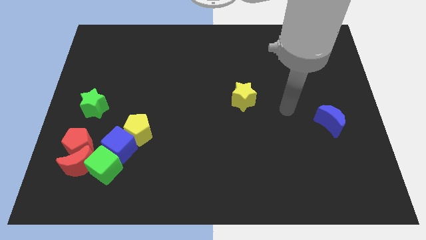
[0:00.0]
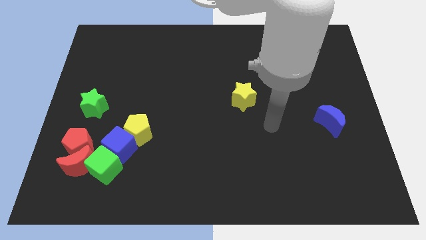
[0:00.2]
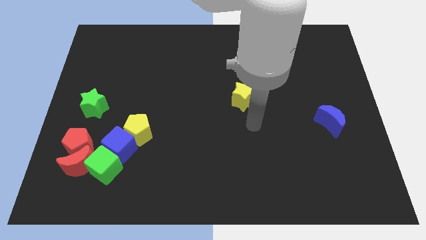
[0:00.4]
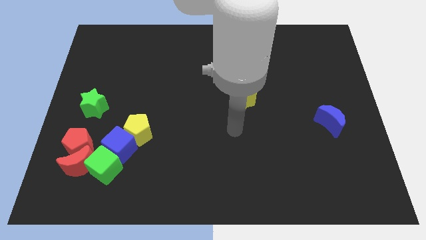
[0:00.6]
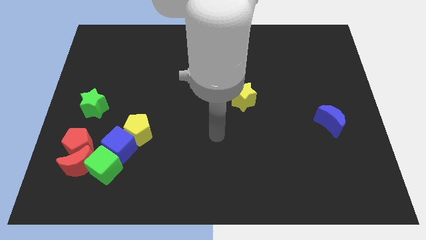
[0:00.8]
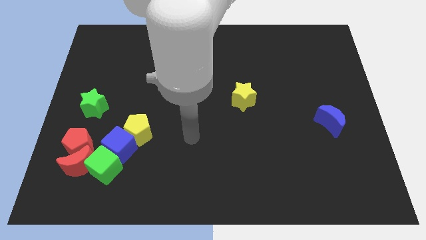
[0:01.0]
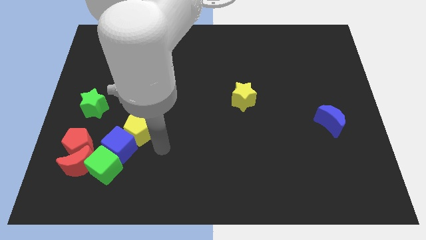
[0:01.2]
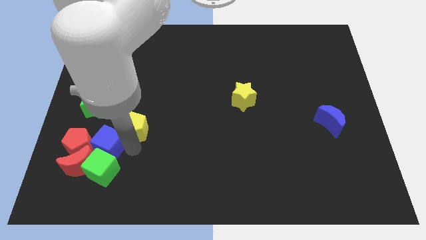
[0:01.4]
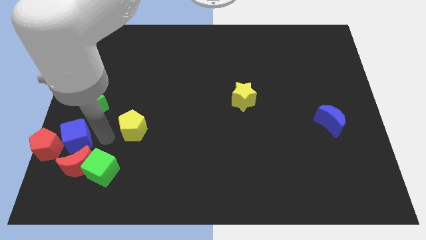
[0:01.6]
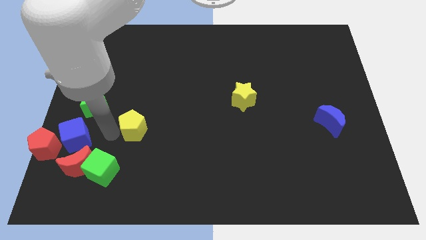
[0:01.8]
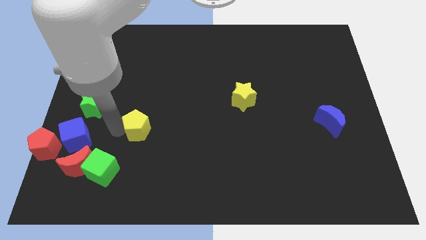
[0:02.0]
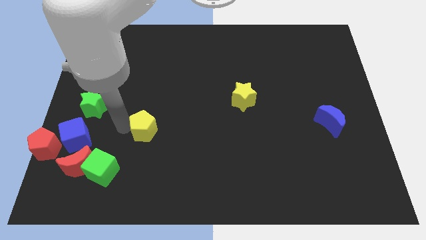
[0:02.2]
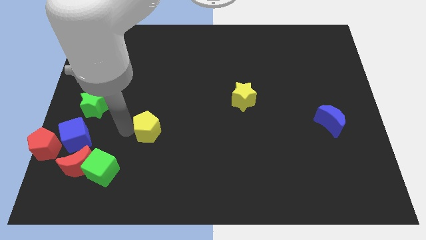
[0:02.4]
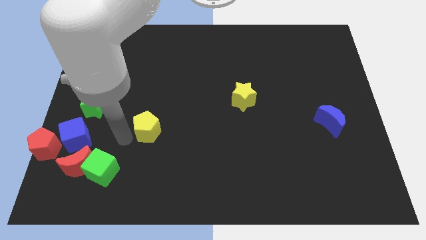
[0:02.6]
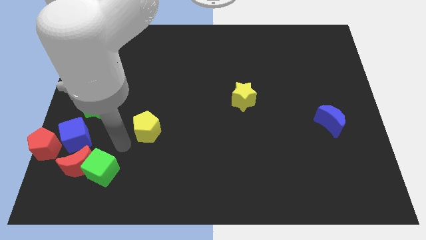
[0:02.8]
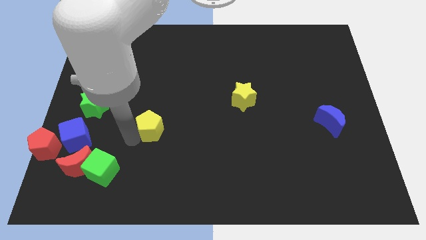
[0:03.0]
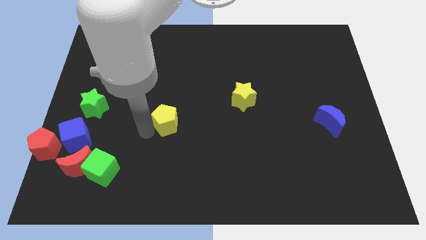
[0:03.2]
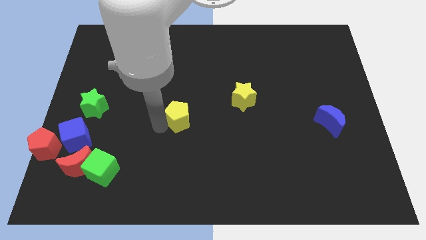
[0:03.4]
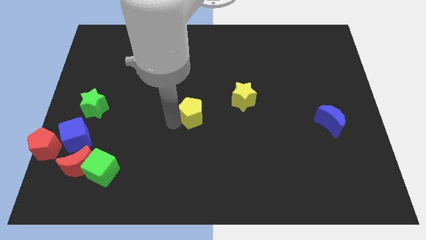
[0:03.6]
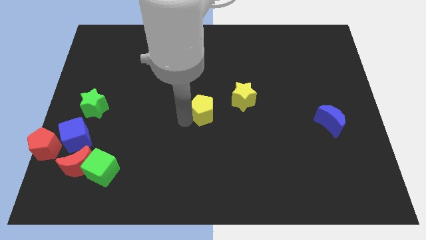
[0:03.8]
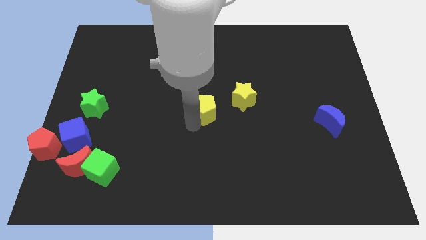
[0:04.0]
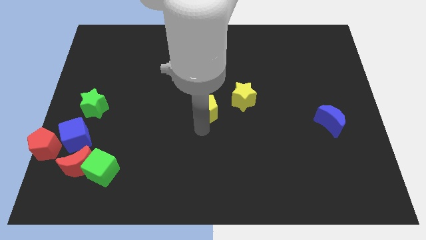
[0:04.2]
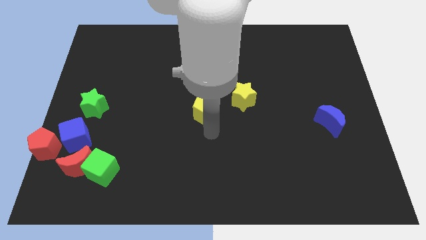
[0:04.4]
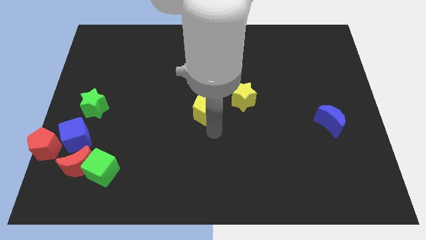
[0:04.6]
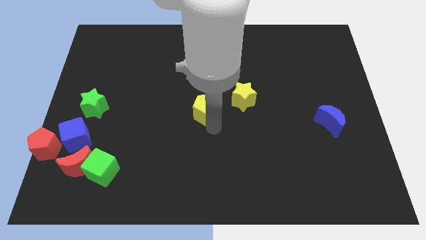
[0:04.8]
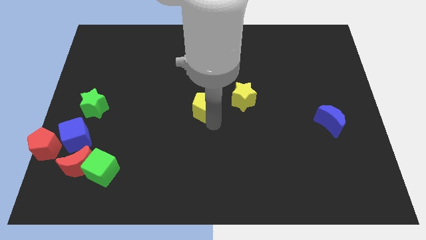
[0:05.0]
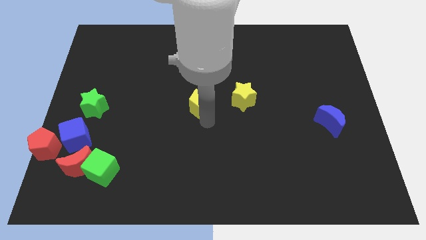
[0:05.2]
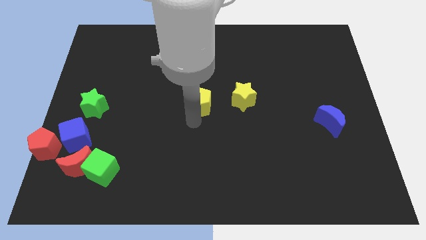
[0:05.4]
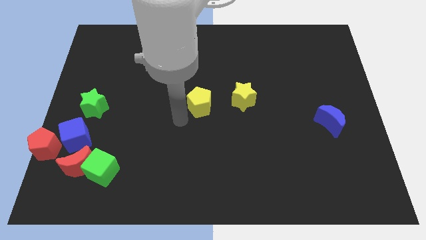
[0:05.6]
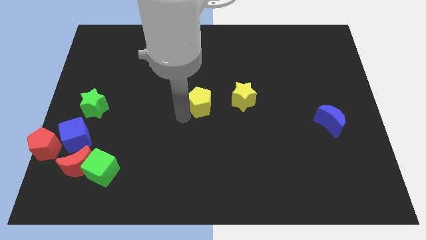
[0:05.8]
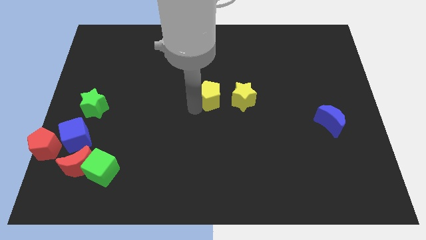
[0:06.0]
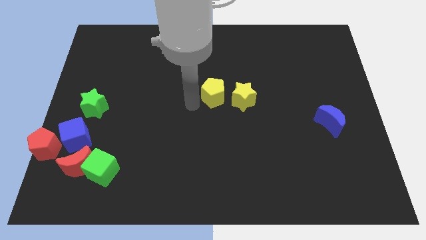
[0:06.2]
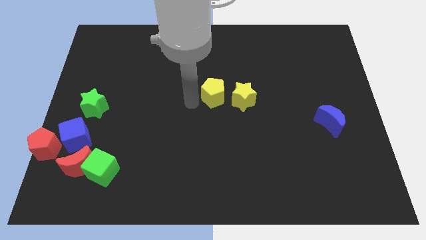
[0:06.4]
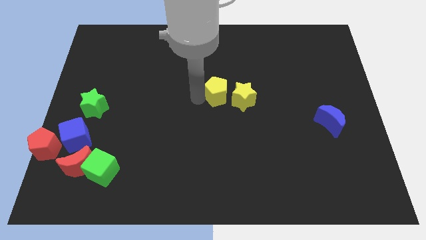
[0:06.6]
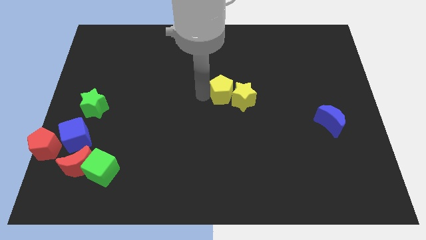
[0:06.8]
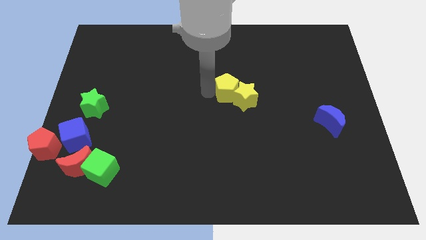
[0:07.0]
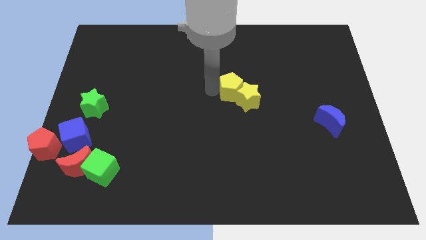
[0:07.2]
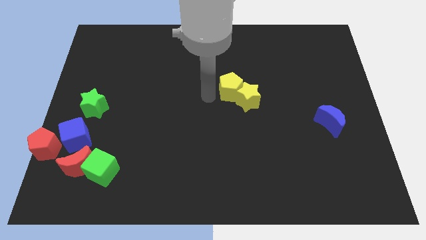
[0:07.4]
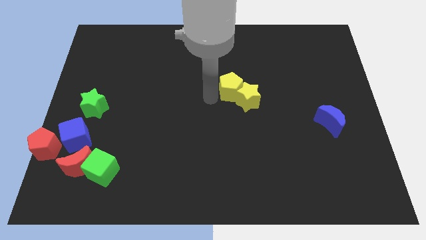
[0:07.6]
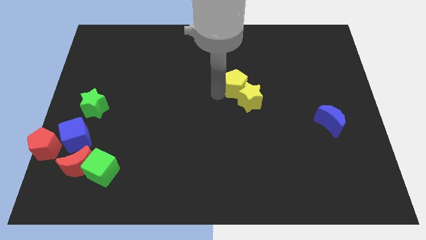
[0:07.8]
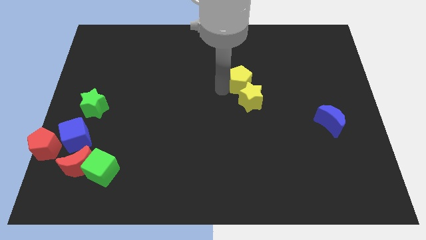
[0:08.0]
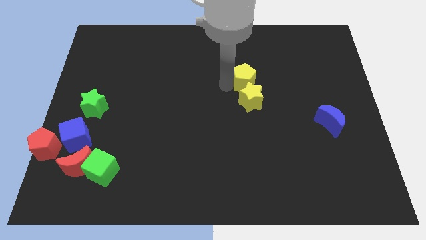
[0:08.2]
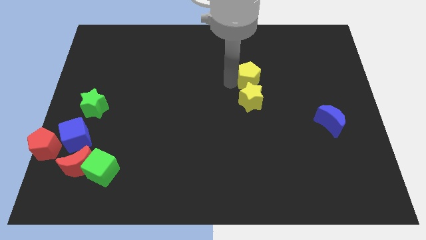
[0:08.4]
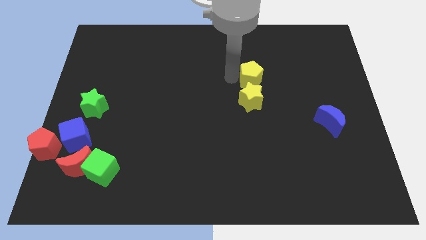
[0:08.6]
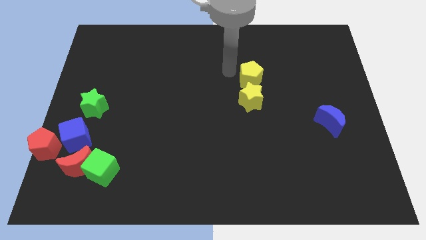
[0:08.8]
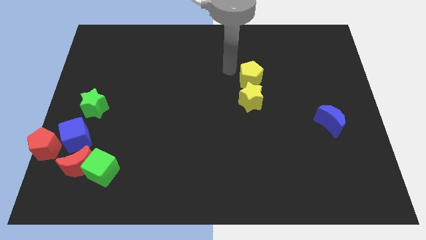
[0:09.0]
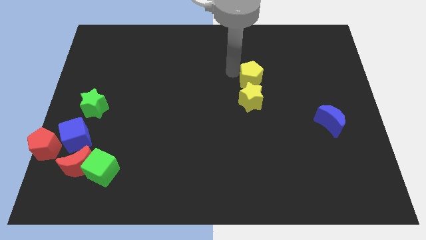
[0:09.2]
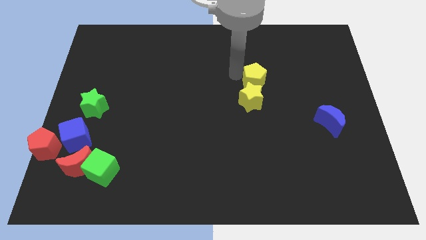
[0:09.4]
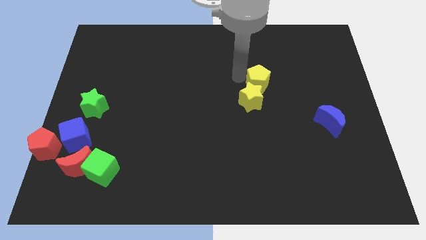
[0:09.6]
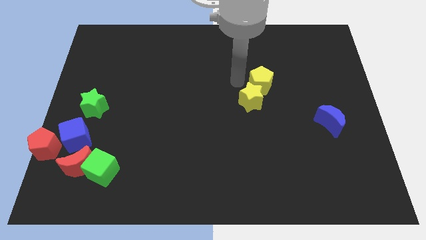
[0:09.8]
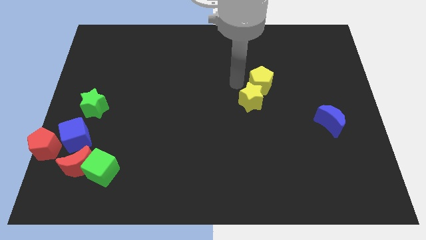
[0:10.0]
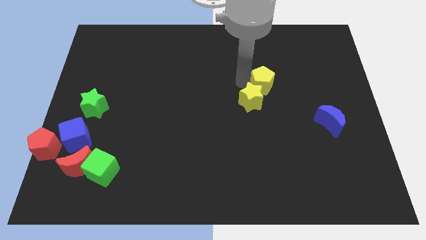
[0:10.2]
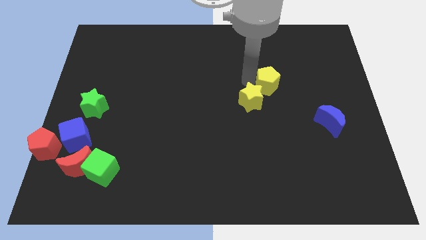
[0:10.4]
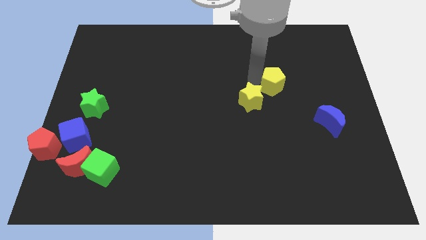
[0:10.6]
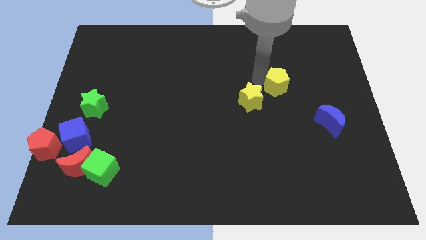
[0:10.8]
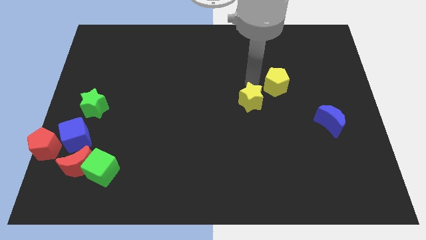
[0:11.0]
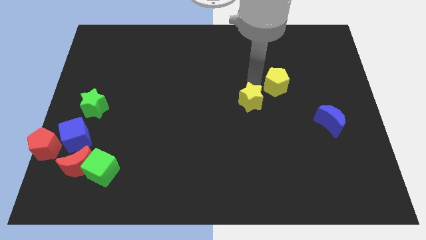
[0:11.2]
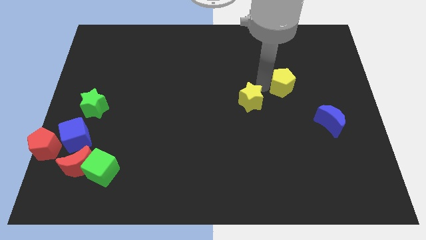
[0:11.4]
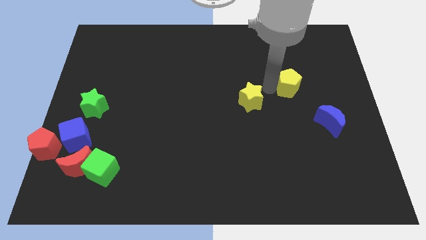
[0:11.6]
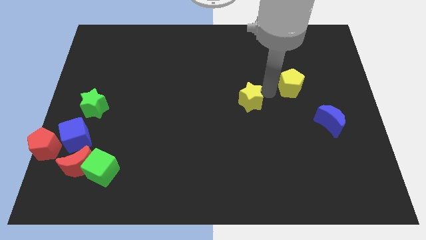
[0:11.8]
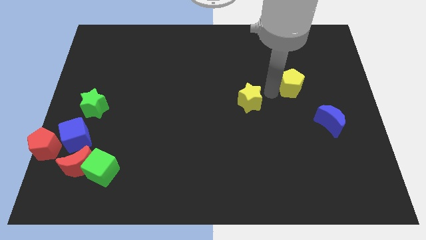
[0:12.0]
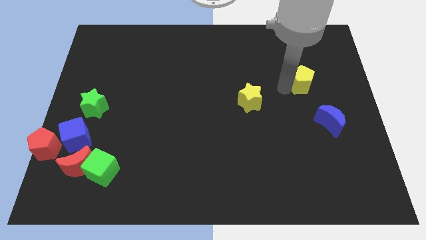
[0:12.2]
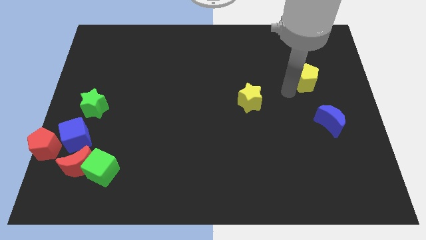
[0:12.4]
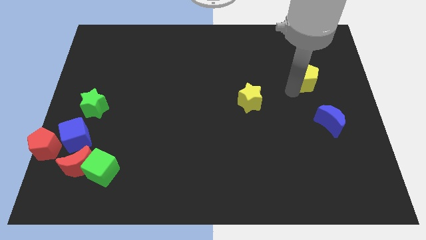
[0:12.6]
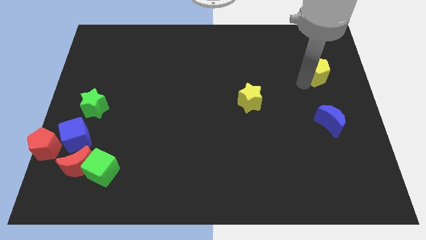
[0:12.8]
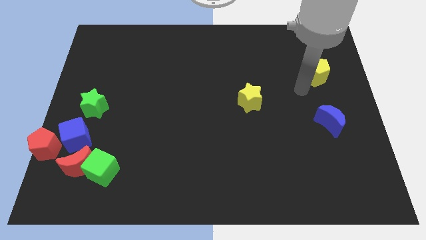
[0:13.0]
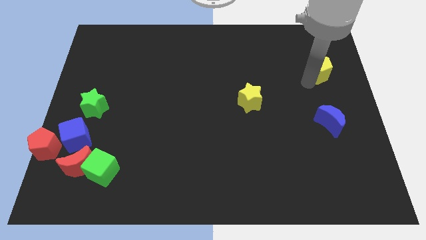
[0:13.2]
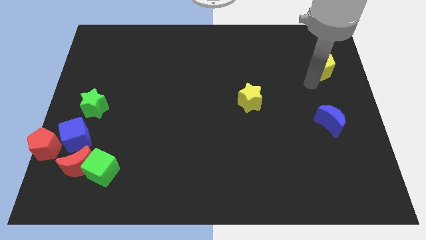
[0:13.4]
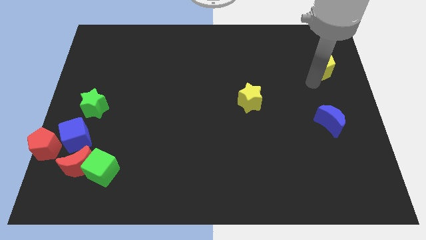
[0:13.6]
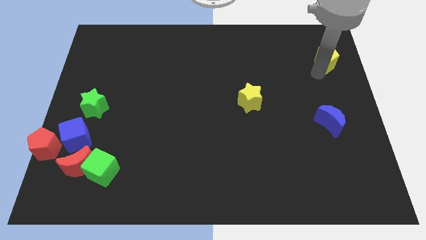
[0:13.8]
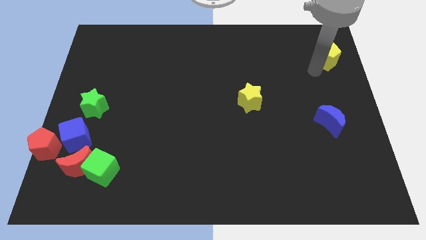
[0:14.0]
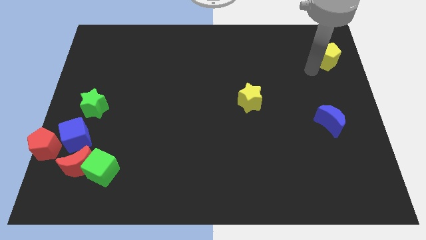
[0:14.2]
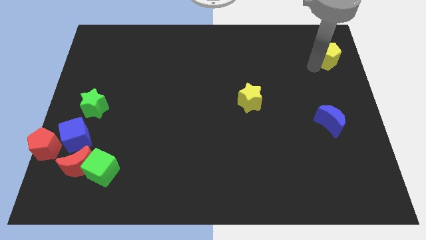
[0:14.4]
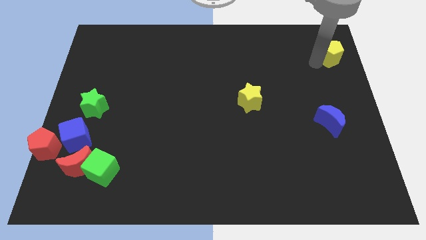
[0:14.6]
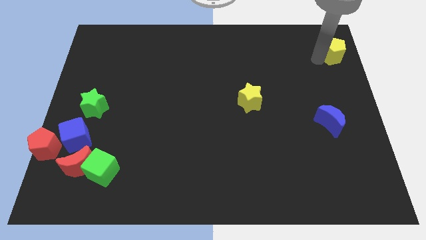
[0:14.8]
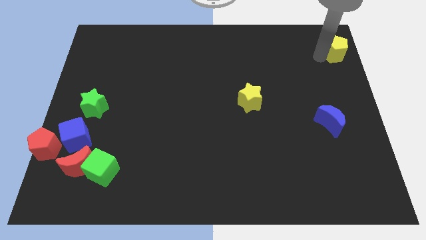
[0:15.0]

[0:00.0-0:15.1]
push the yellow pentagon to the top right of the board

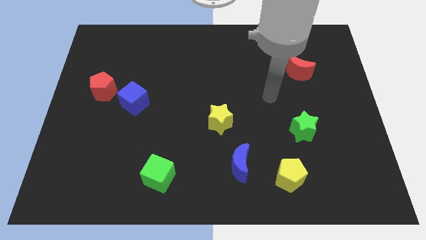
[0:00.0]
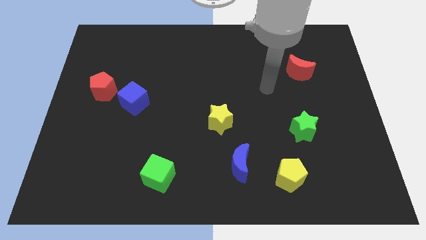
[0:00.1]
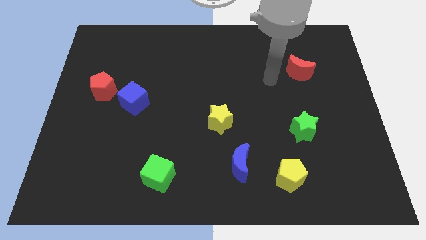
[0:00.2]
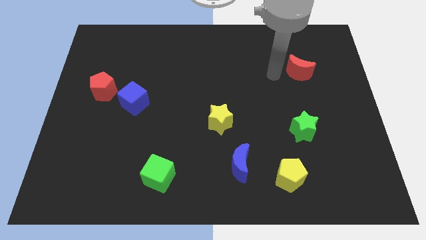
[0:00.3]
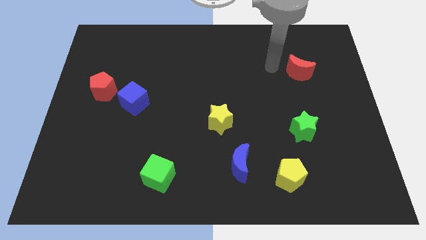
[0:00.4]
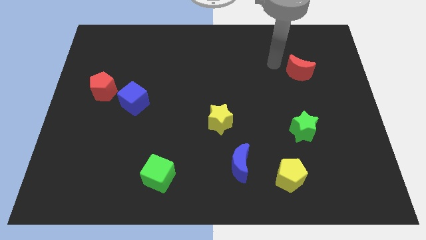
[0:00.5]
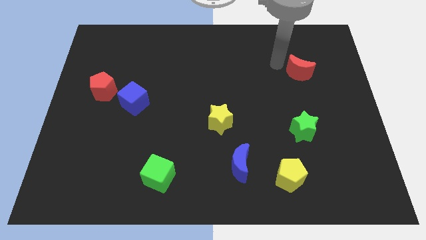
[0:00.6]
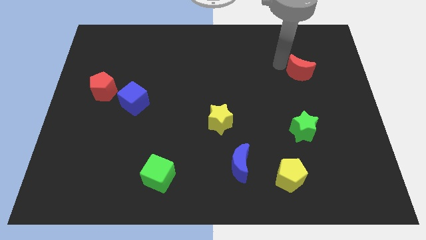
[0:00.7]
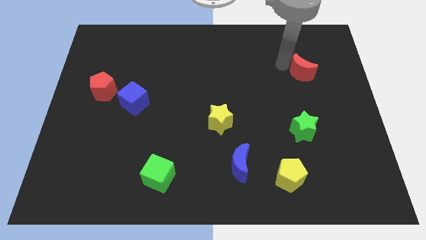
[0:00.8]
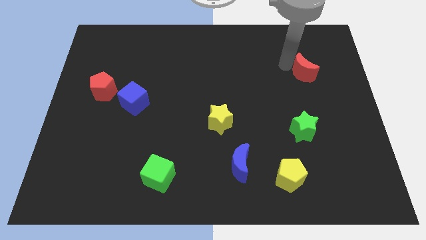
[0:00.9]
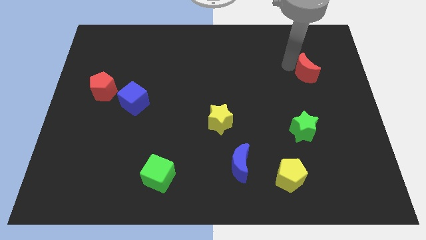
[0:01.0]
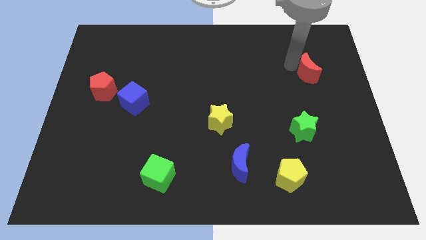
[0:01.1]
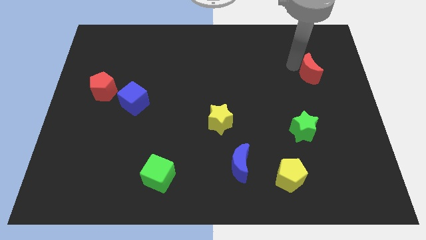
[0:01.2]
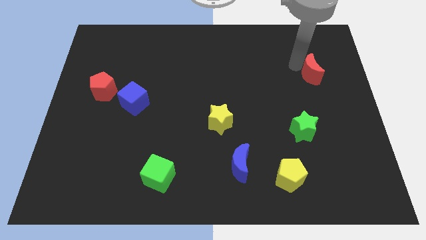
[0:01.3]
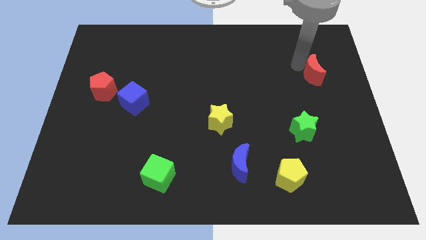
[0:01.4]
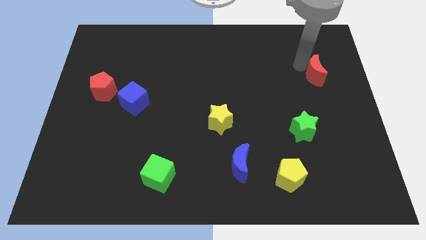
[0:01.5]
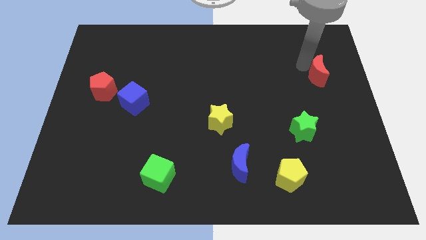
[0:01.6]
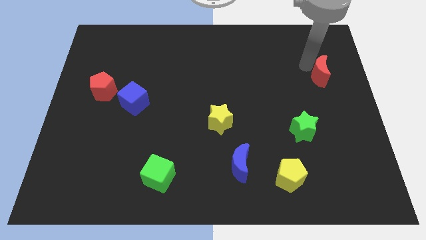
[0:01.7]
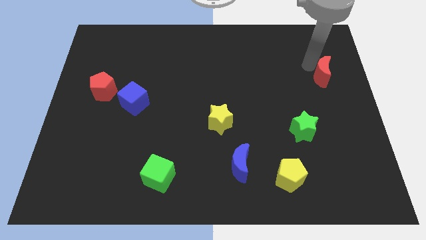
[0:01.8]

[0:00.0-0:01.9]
slide the red moon to the right side
